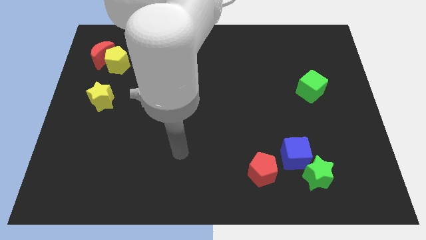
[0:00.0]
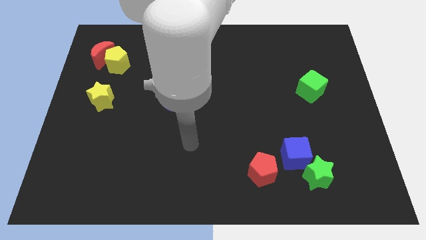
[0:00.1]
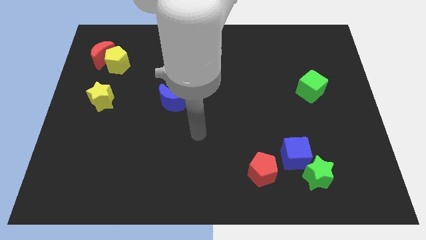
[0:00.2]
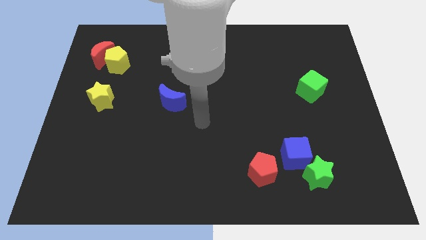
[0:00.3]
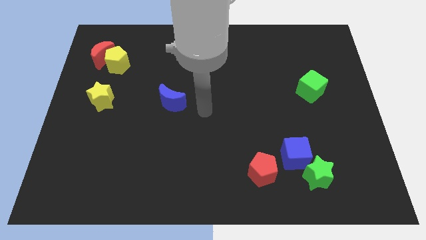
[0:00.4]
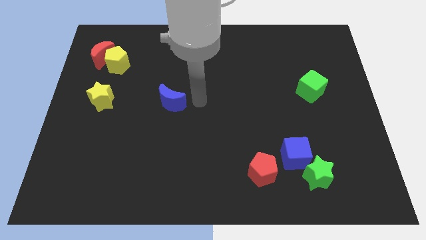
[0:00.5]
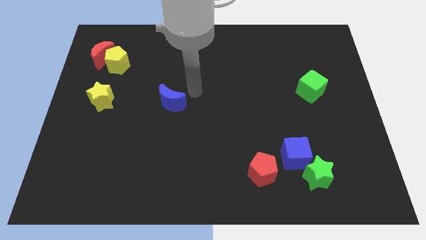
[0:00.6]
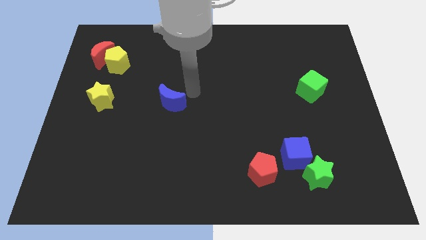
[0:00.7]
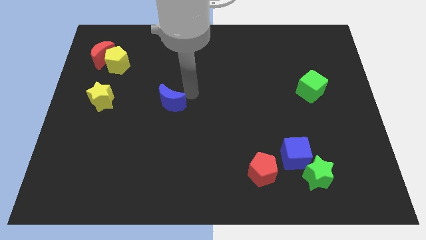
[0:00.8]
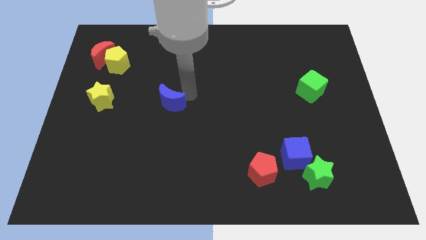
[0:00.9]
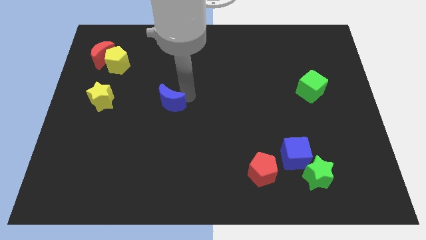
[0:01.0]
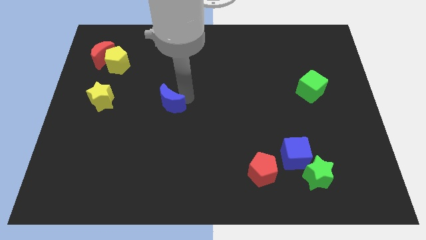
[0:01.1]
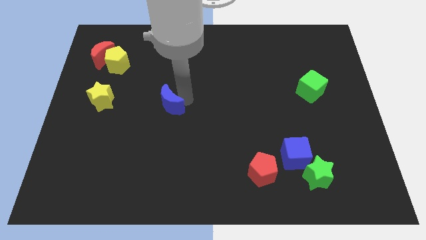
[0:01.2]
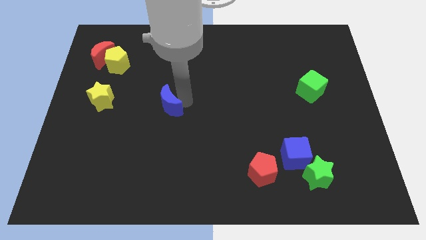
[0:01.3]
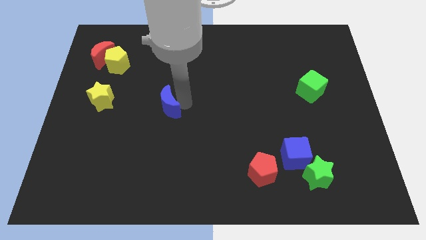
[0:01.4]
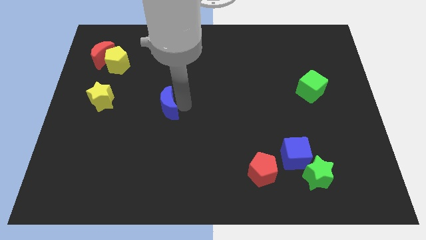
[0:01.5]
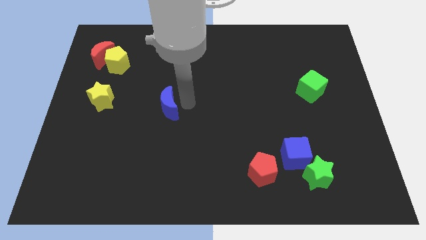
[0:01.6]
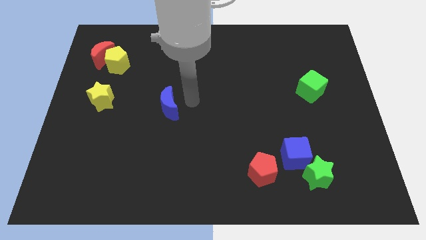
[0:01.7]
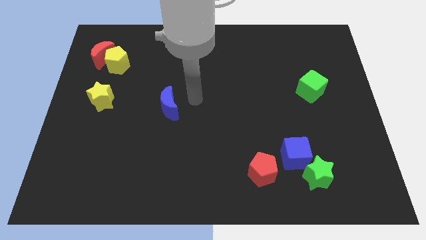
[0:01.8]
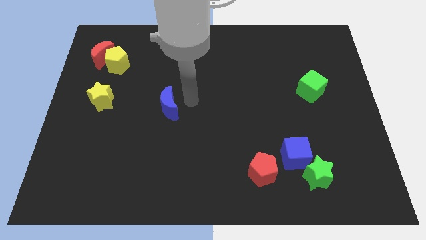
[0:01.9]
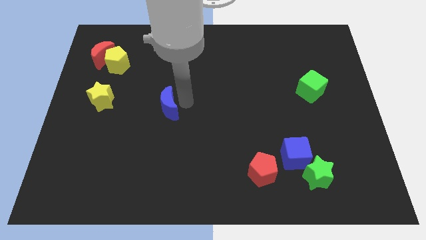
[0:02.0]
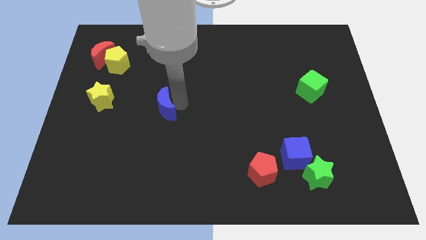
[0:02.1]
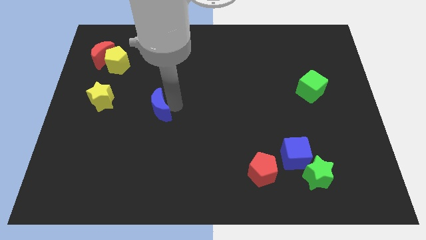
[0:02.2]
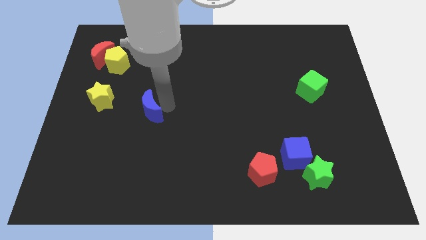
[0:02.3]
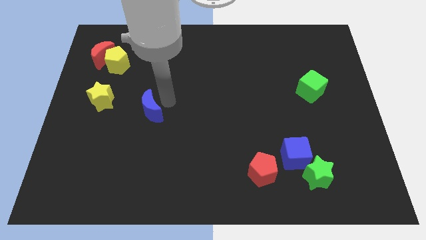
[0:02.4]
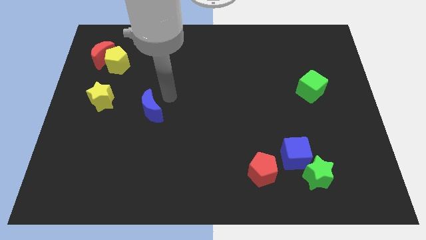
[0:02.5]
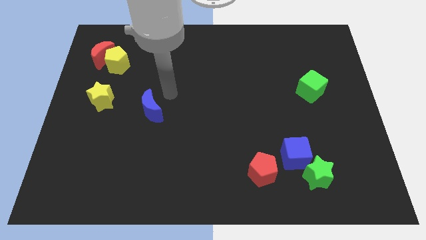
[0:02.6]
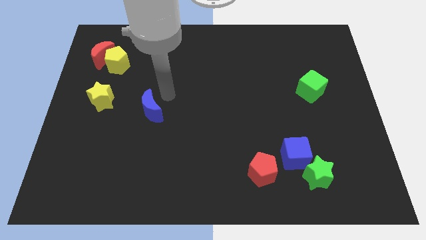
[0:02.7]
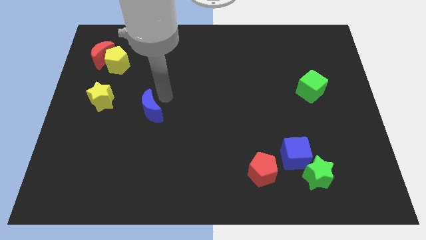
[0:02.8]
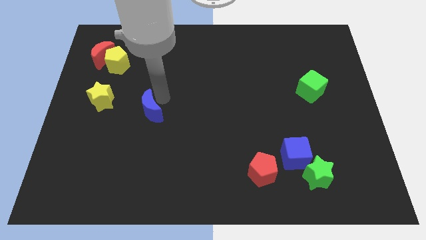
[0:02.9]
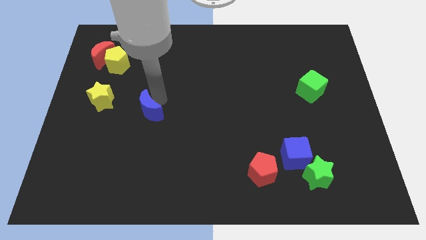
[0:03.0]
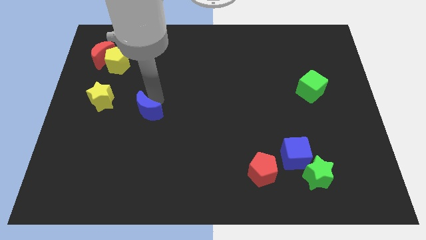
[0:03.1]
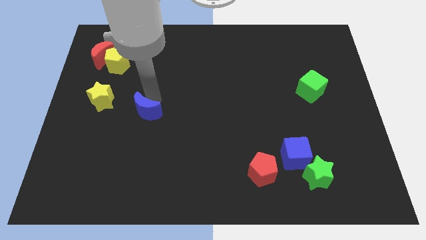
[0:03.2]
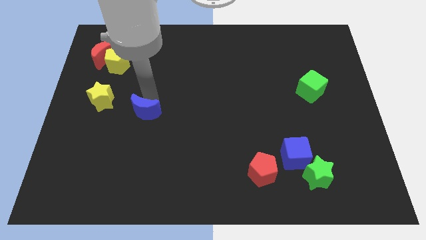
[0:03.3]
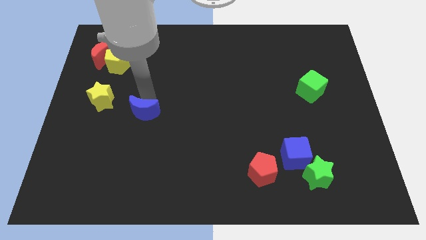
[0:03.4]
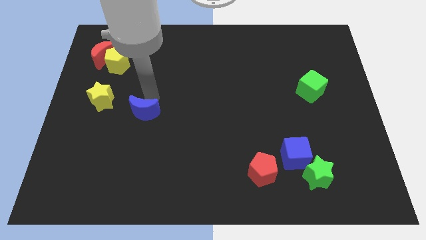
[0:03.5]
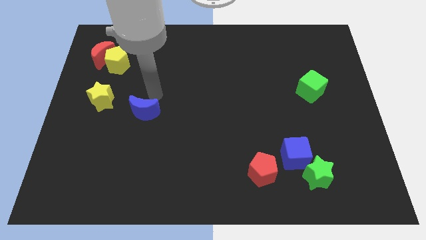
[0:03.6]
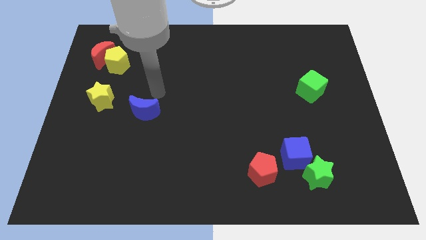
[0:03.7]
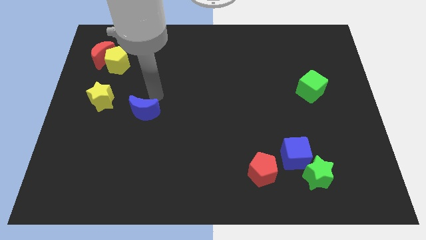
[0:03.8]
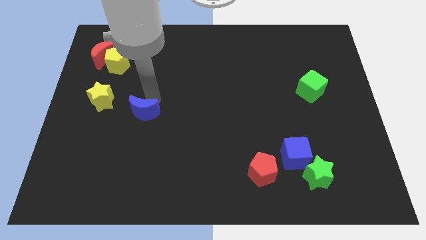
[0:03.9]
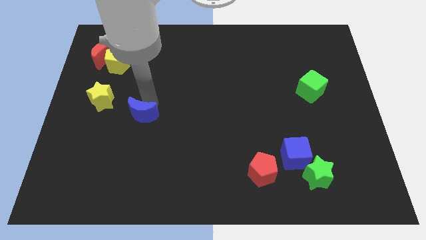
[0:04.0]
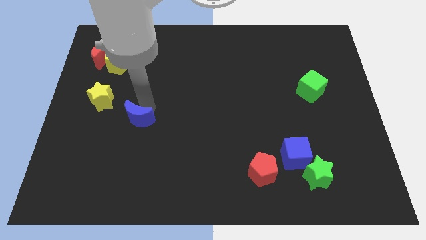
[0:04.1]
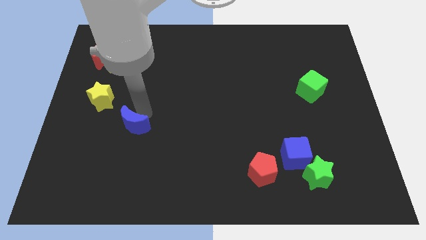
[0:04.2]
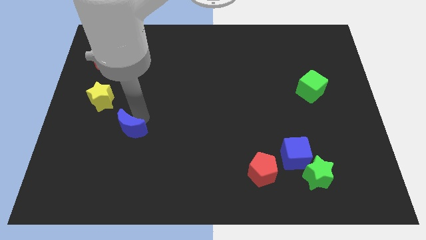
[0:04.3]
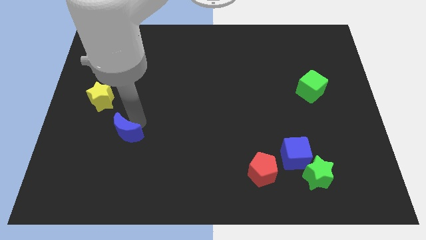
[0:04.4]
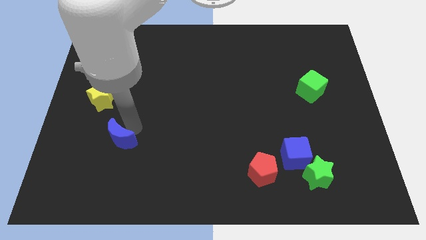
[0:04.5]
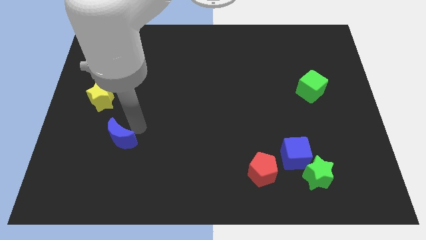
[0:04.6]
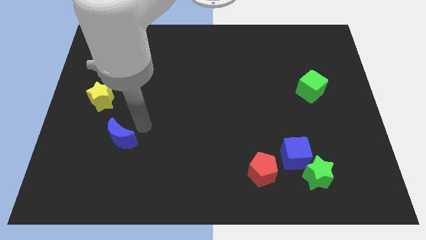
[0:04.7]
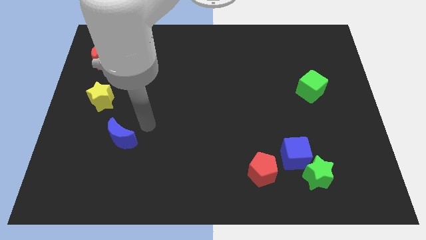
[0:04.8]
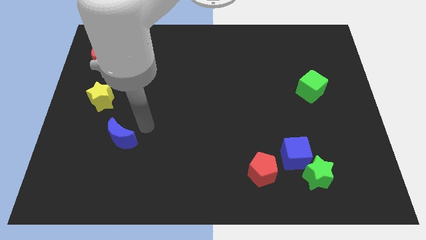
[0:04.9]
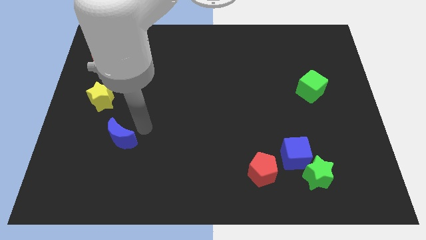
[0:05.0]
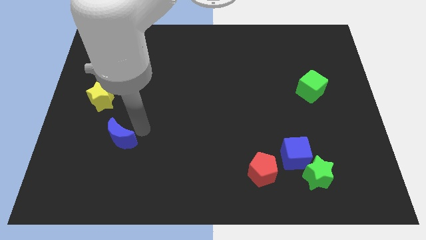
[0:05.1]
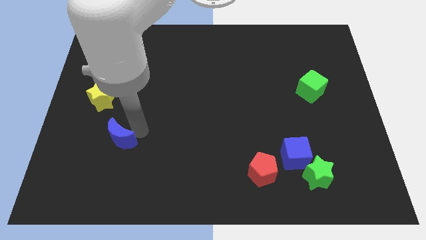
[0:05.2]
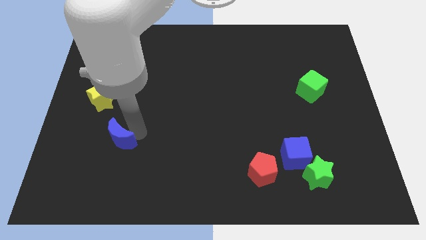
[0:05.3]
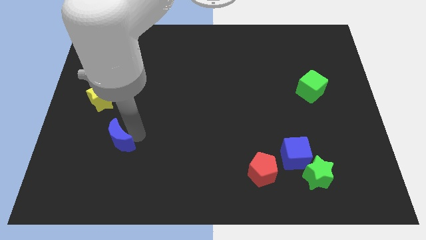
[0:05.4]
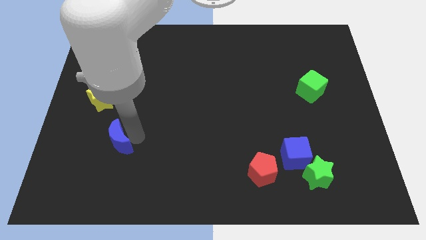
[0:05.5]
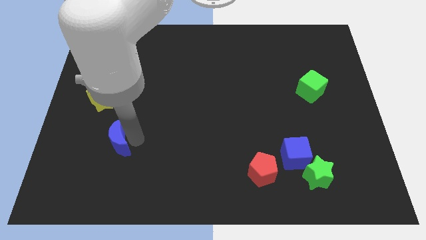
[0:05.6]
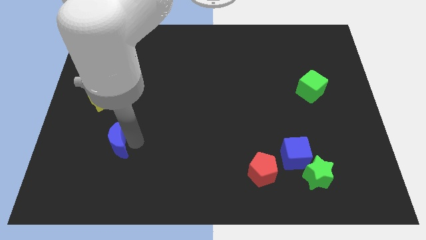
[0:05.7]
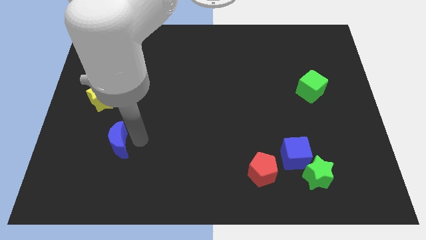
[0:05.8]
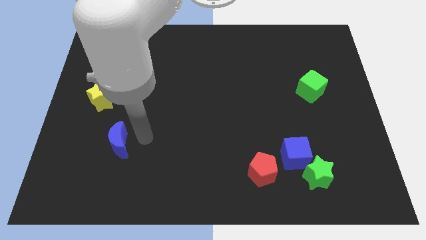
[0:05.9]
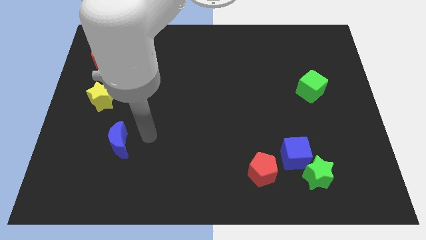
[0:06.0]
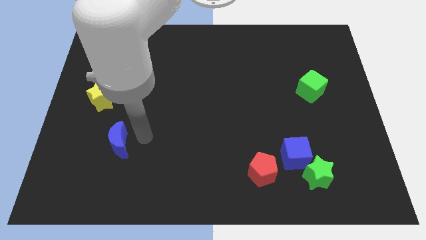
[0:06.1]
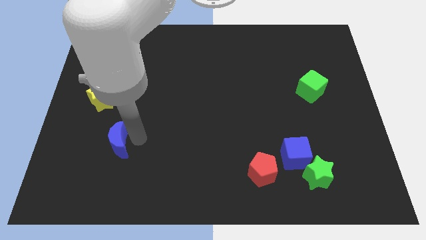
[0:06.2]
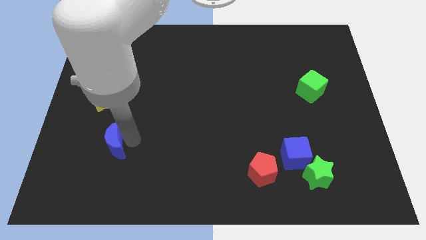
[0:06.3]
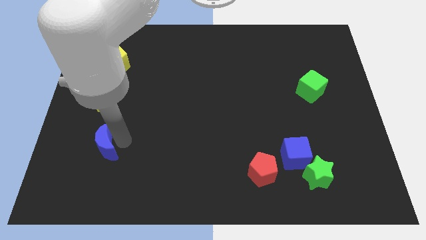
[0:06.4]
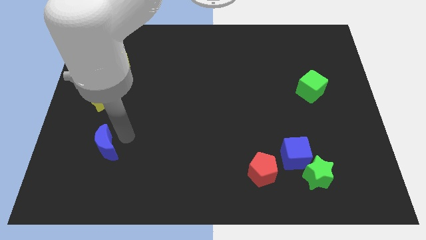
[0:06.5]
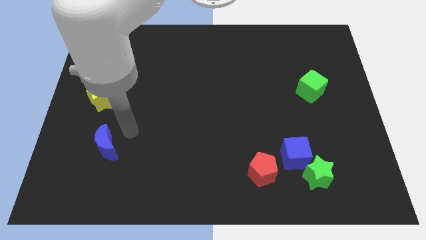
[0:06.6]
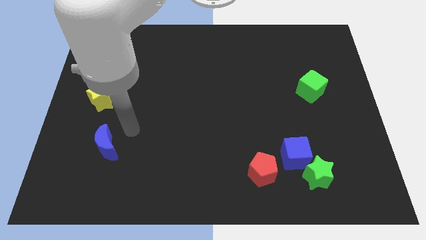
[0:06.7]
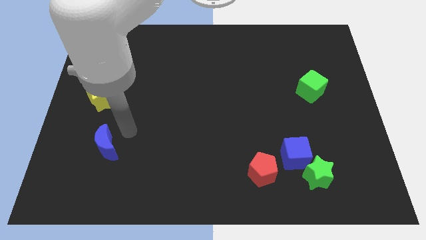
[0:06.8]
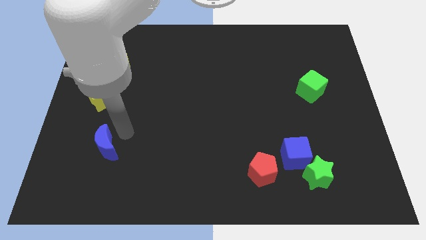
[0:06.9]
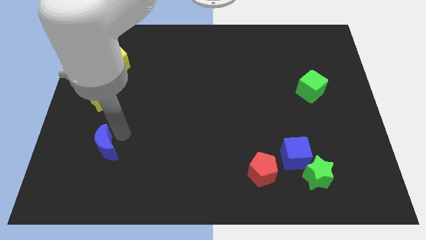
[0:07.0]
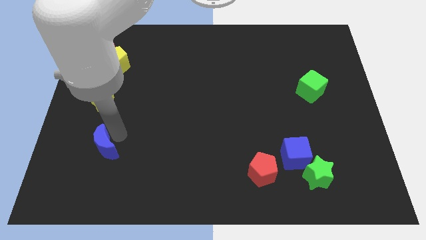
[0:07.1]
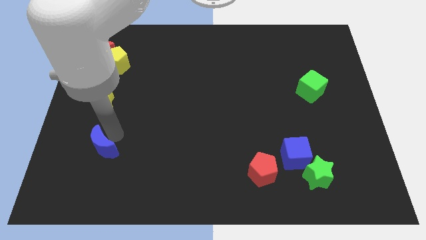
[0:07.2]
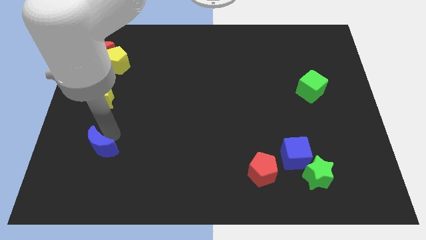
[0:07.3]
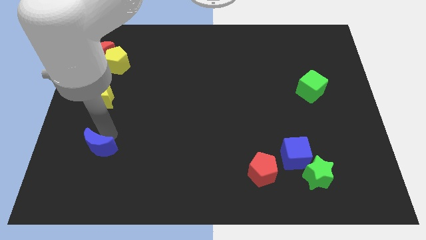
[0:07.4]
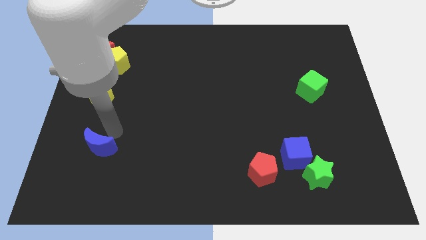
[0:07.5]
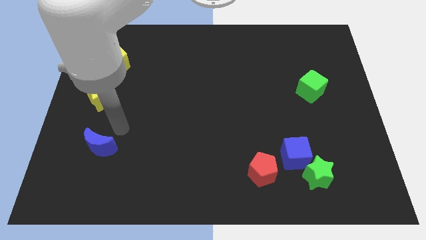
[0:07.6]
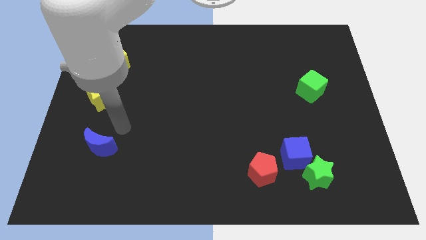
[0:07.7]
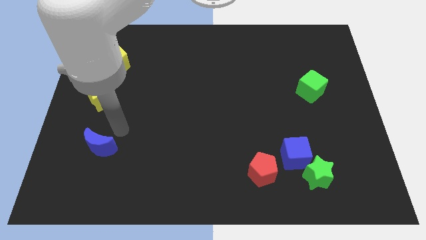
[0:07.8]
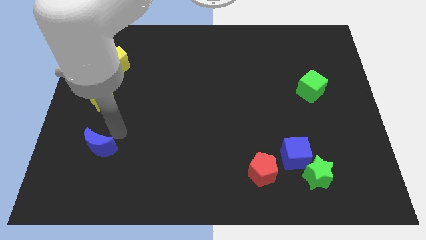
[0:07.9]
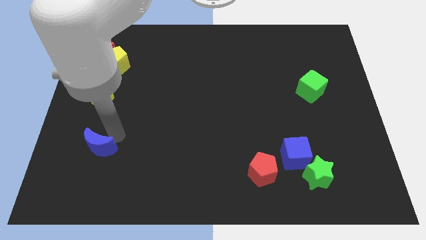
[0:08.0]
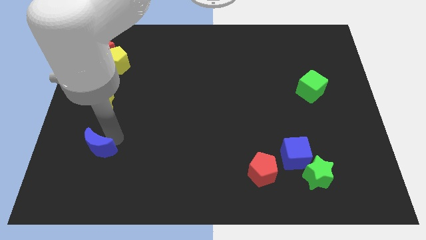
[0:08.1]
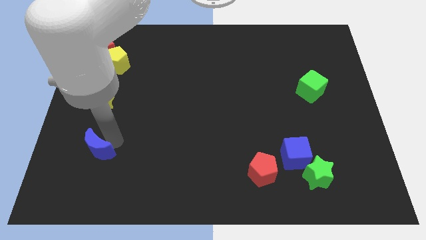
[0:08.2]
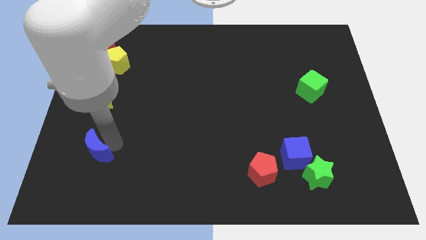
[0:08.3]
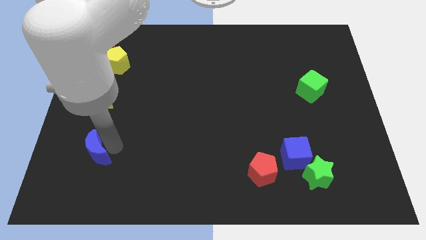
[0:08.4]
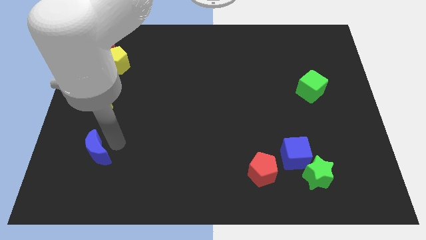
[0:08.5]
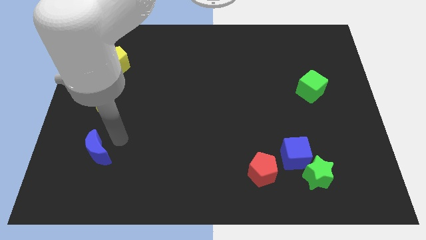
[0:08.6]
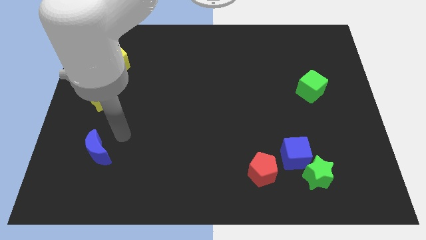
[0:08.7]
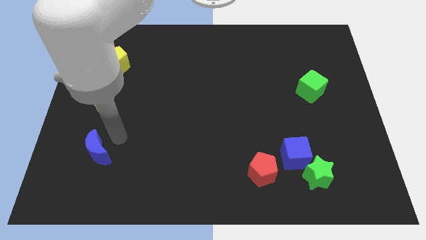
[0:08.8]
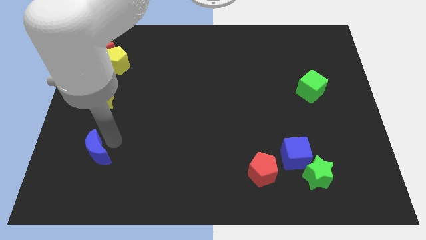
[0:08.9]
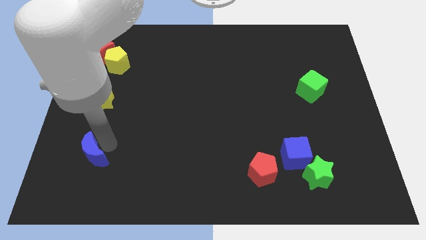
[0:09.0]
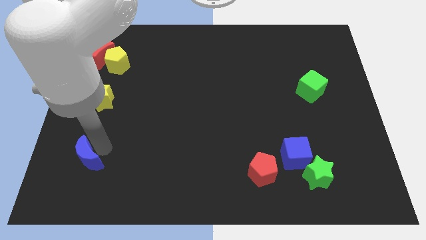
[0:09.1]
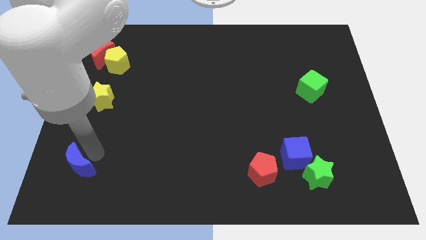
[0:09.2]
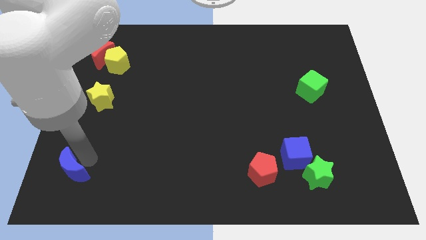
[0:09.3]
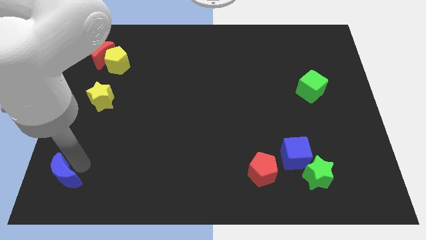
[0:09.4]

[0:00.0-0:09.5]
put the blue moon to the bottom left of the board
